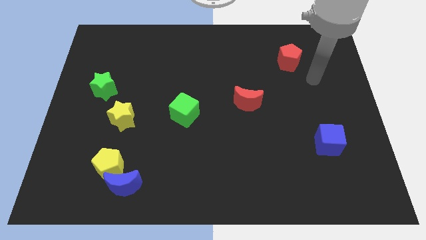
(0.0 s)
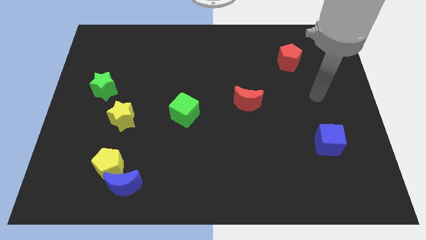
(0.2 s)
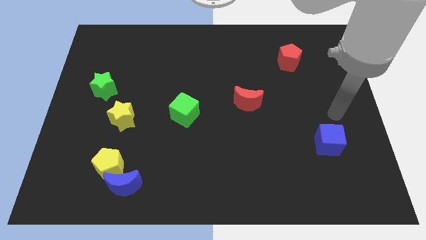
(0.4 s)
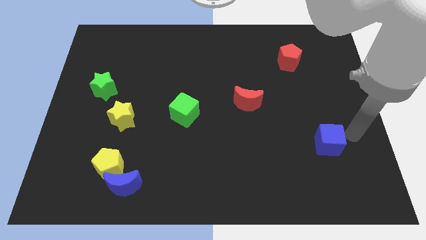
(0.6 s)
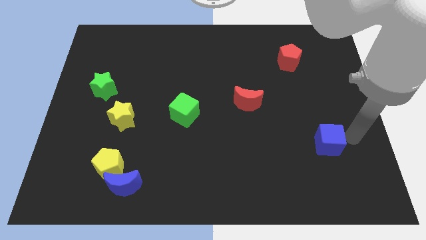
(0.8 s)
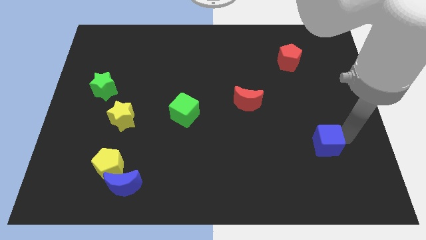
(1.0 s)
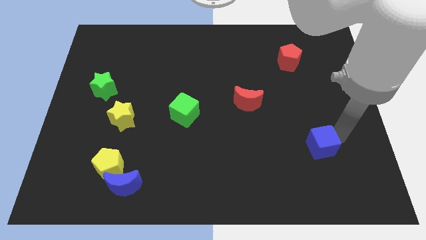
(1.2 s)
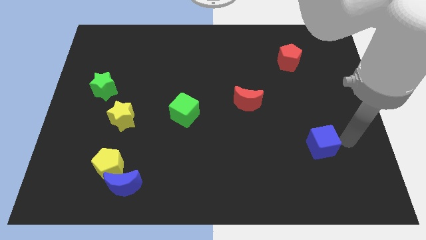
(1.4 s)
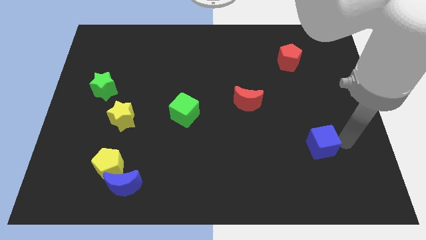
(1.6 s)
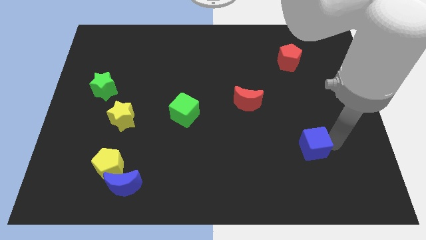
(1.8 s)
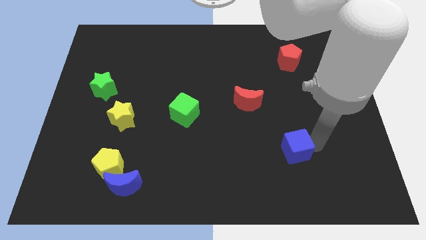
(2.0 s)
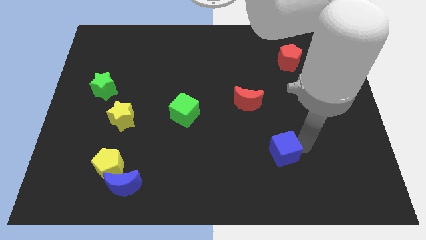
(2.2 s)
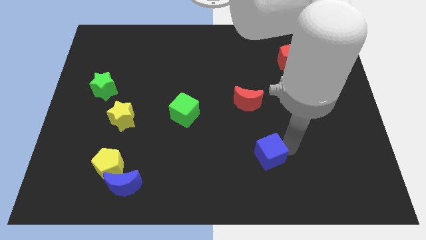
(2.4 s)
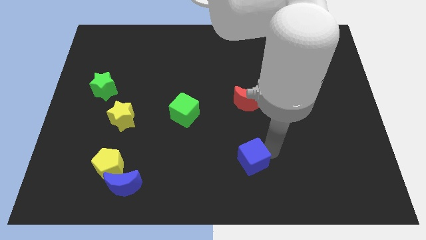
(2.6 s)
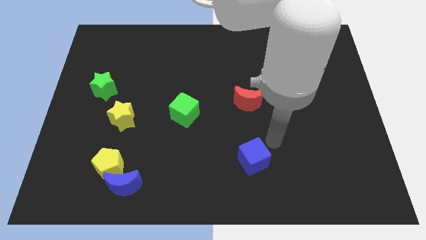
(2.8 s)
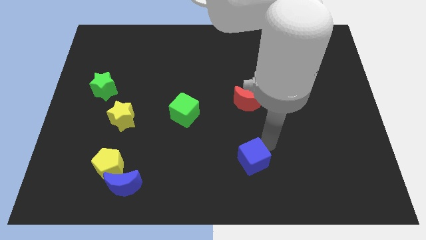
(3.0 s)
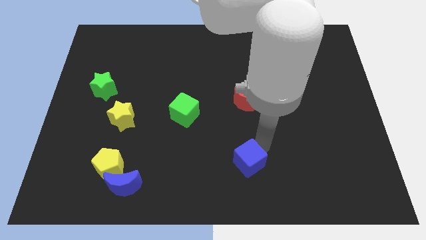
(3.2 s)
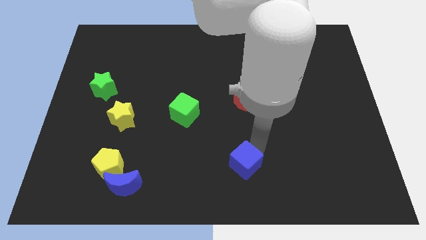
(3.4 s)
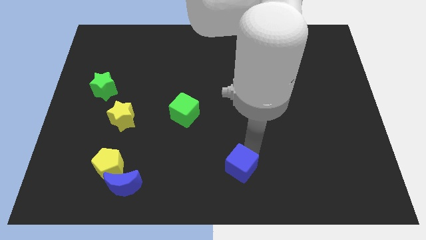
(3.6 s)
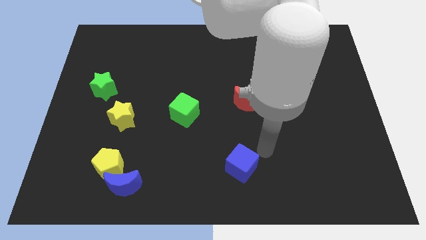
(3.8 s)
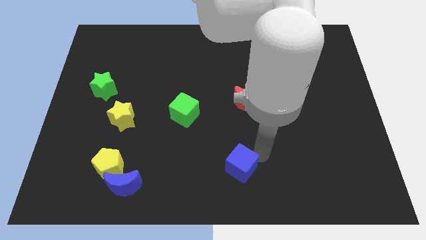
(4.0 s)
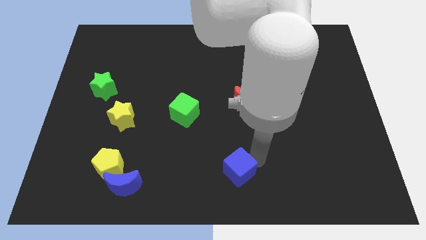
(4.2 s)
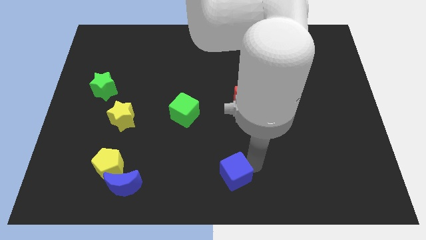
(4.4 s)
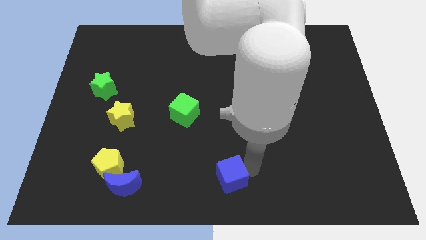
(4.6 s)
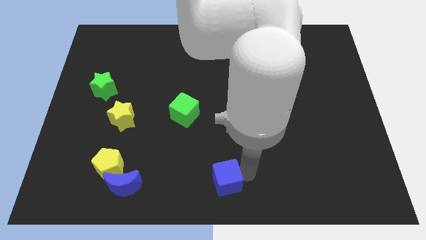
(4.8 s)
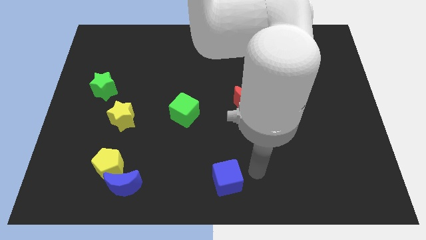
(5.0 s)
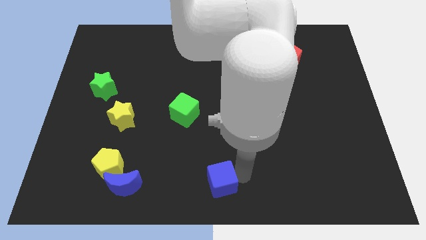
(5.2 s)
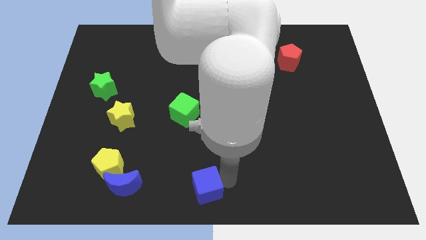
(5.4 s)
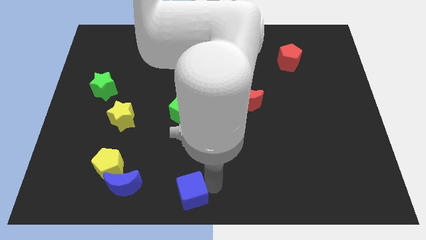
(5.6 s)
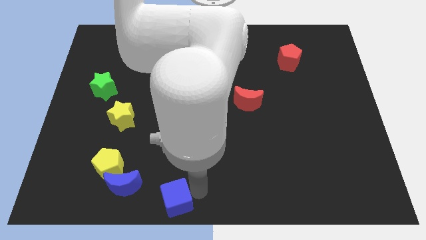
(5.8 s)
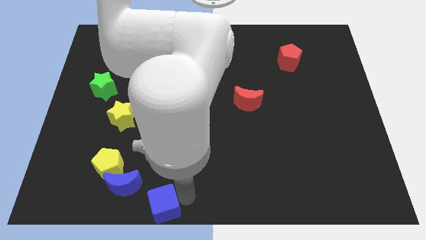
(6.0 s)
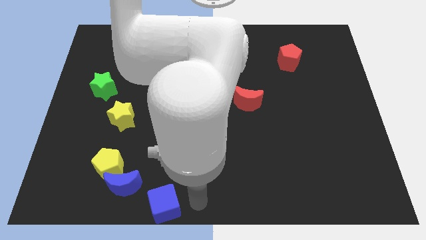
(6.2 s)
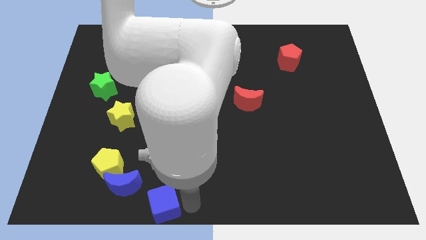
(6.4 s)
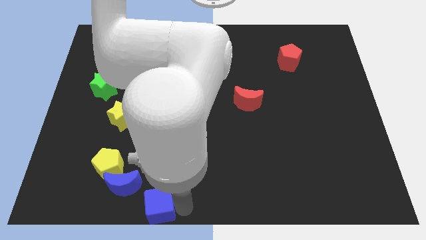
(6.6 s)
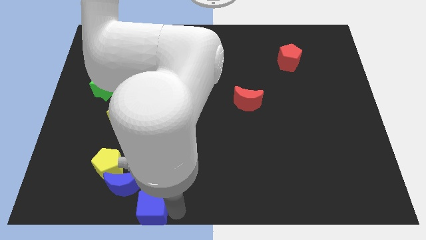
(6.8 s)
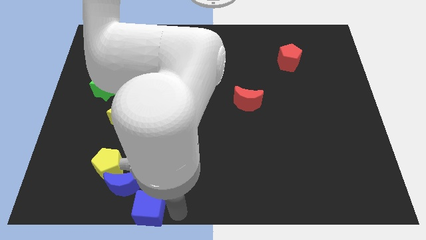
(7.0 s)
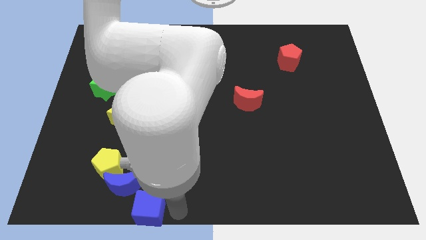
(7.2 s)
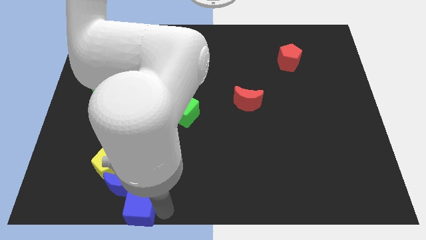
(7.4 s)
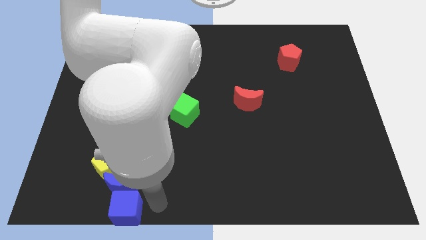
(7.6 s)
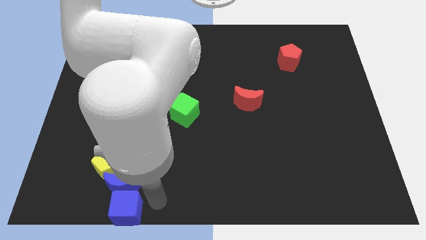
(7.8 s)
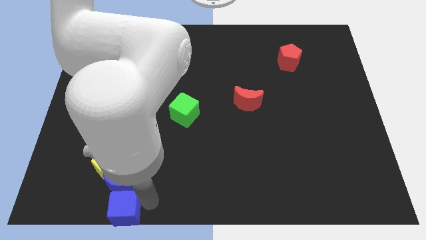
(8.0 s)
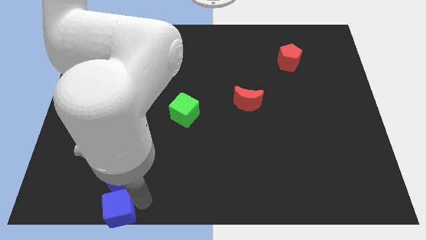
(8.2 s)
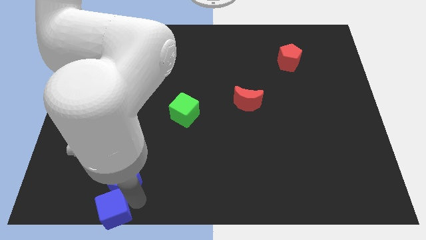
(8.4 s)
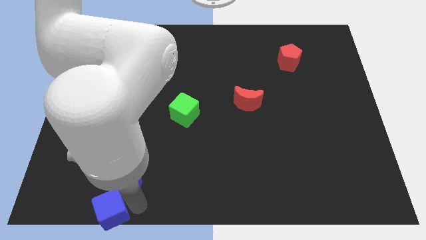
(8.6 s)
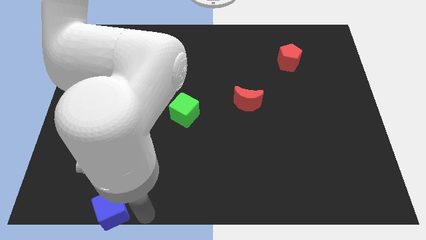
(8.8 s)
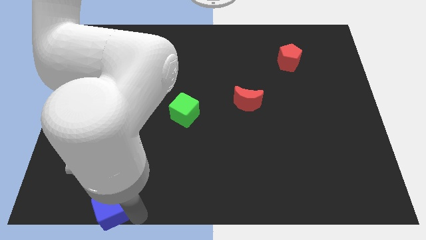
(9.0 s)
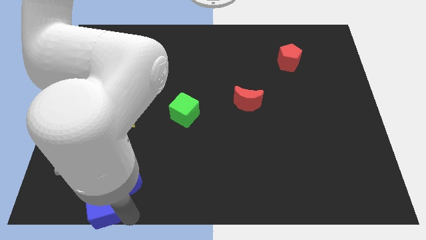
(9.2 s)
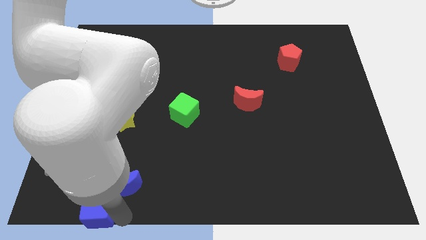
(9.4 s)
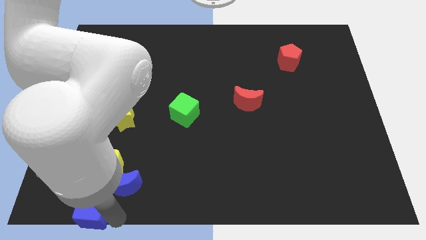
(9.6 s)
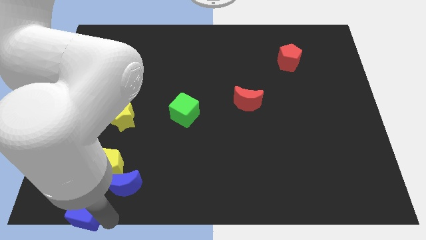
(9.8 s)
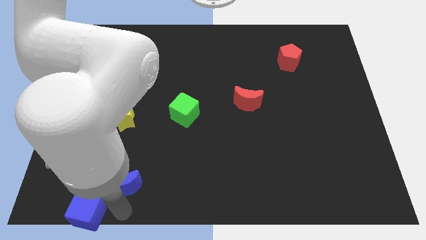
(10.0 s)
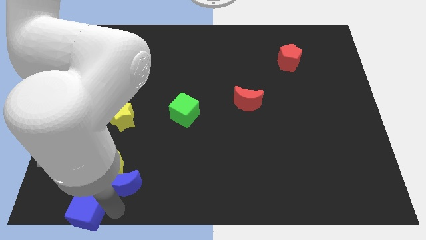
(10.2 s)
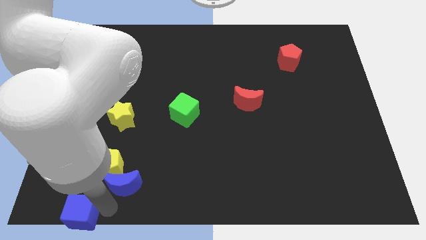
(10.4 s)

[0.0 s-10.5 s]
put the blue cube to the bottom left of the board

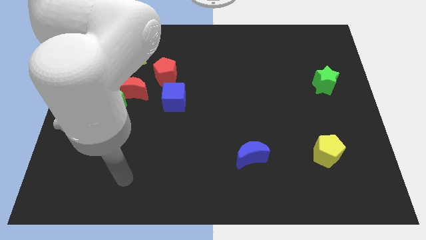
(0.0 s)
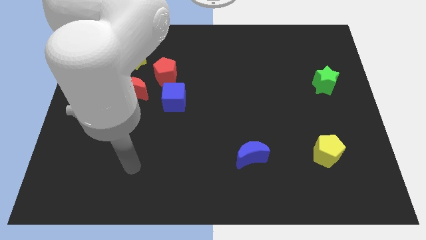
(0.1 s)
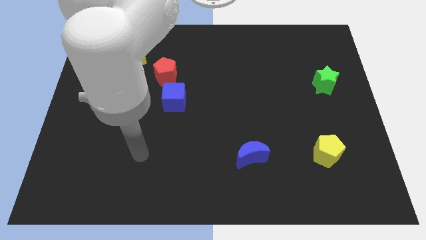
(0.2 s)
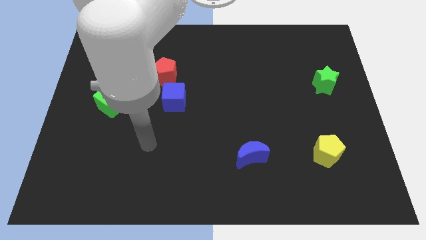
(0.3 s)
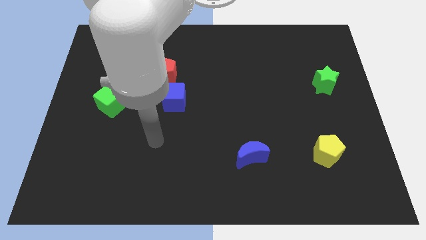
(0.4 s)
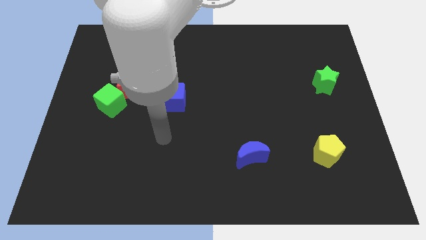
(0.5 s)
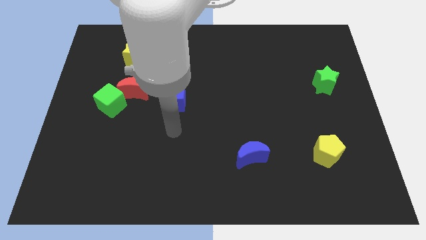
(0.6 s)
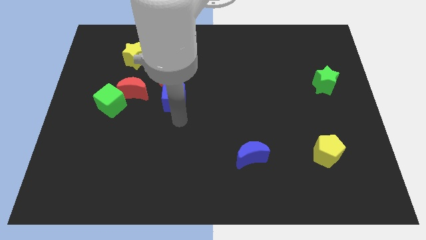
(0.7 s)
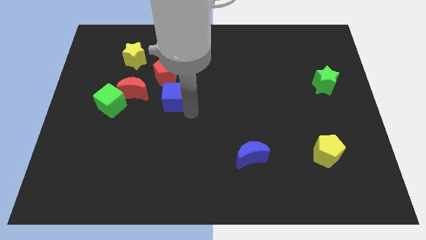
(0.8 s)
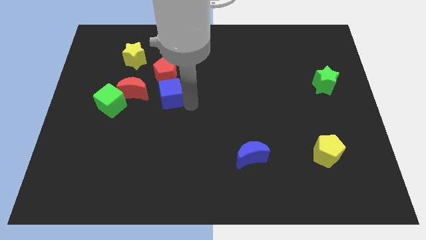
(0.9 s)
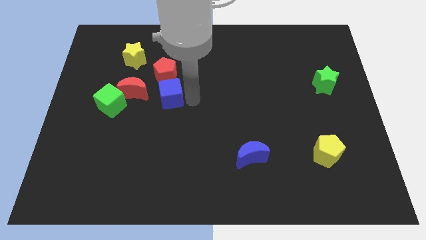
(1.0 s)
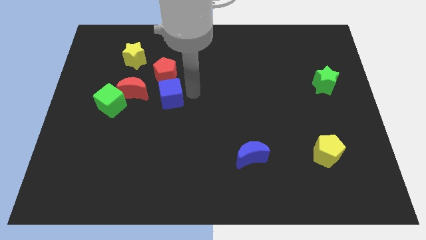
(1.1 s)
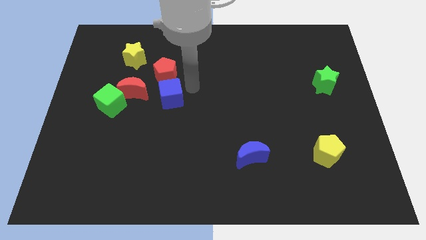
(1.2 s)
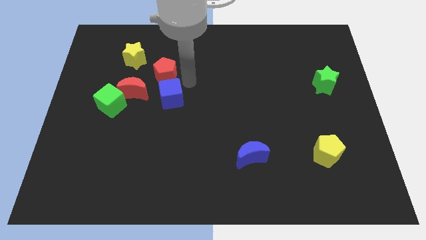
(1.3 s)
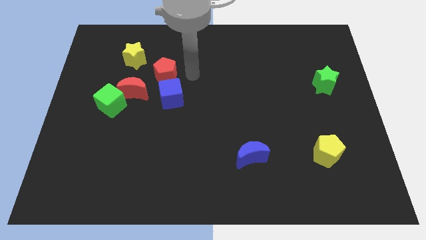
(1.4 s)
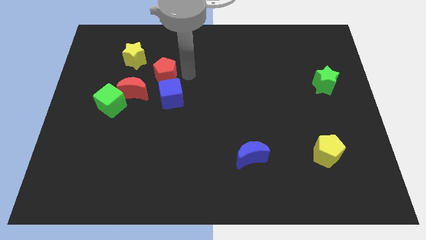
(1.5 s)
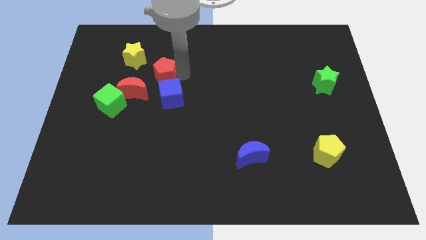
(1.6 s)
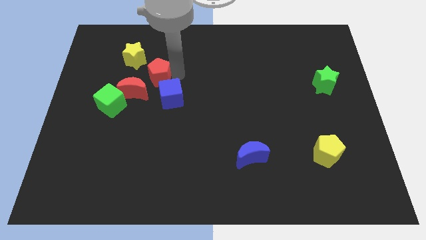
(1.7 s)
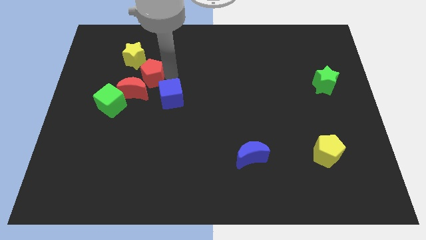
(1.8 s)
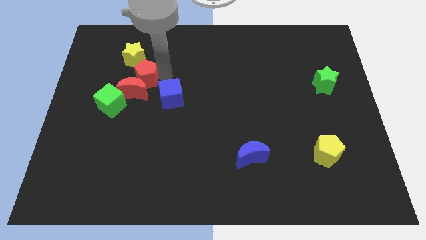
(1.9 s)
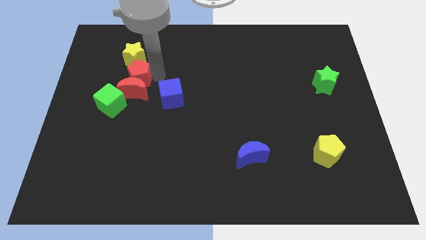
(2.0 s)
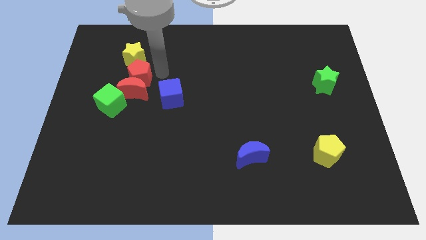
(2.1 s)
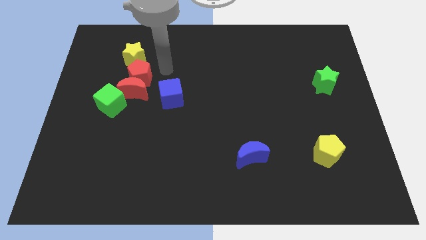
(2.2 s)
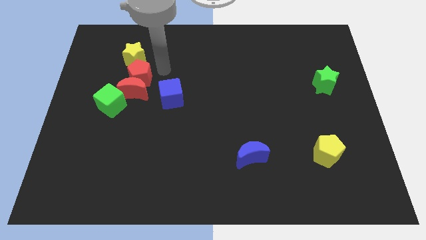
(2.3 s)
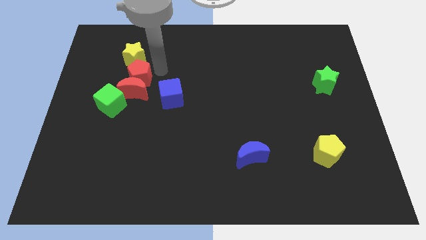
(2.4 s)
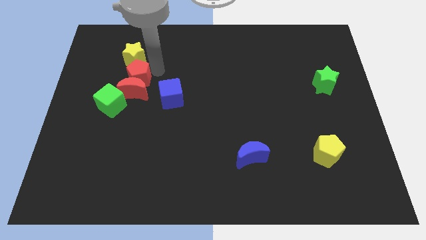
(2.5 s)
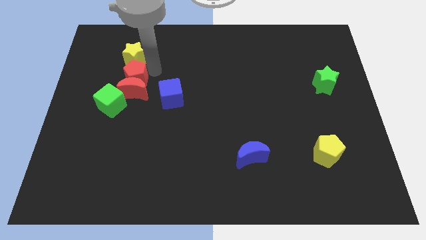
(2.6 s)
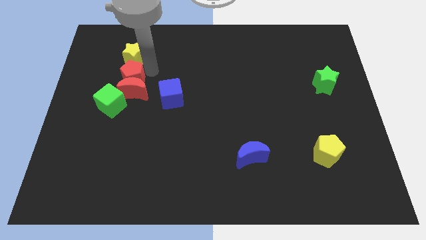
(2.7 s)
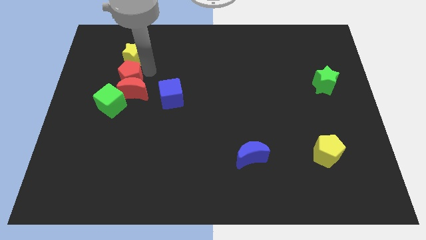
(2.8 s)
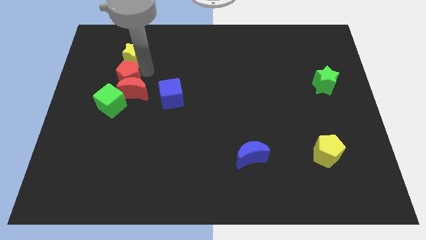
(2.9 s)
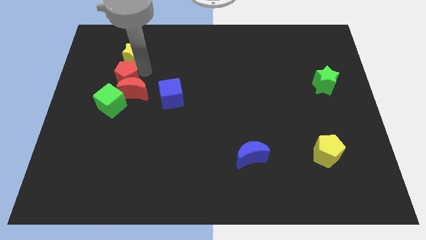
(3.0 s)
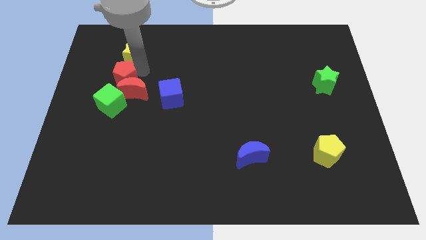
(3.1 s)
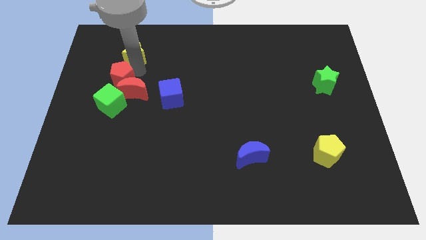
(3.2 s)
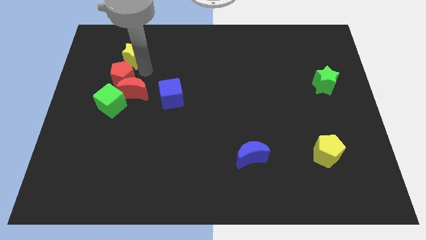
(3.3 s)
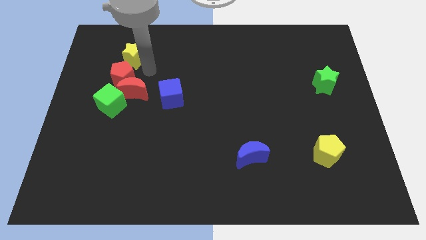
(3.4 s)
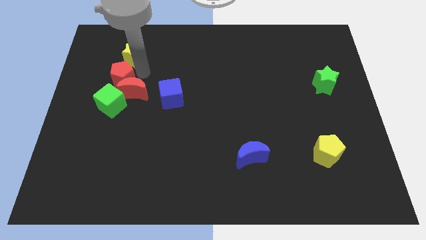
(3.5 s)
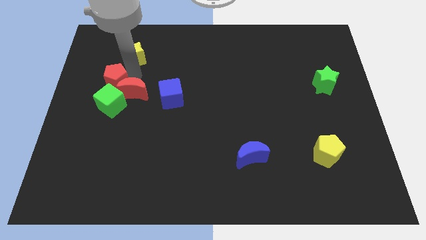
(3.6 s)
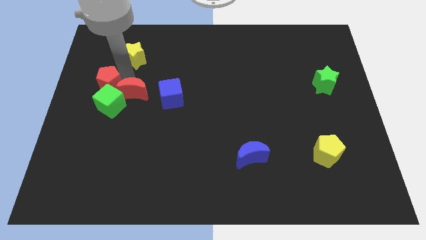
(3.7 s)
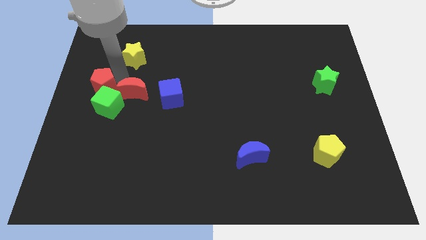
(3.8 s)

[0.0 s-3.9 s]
move the red pentagon to the left side of the board
